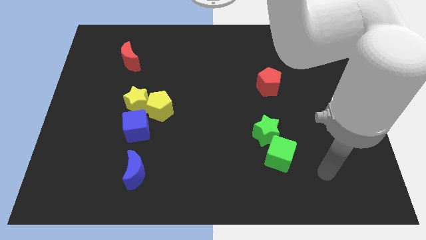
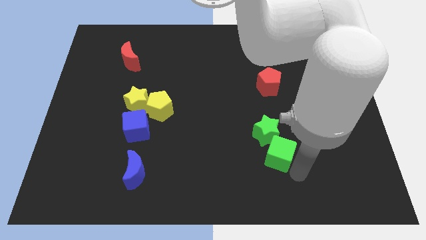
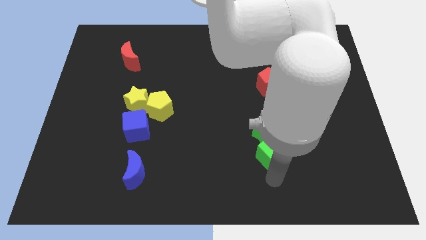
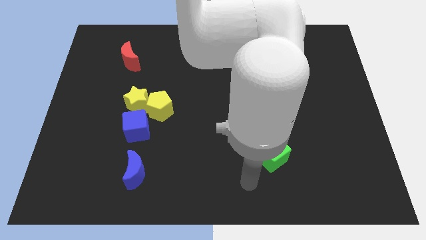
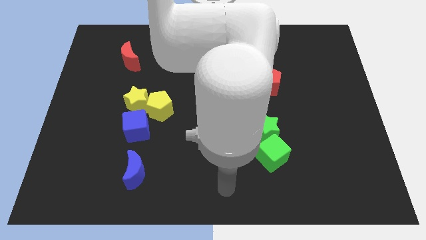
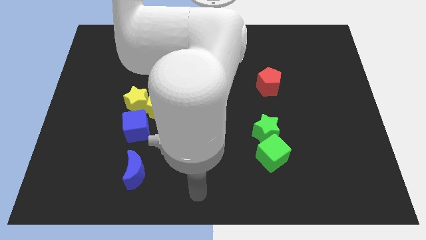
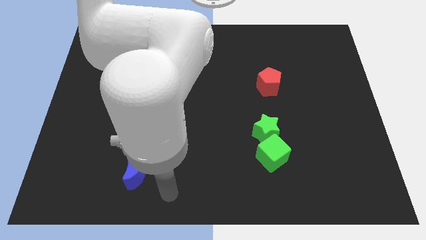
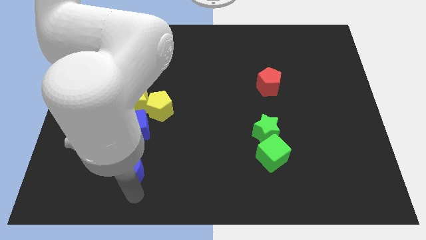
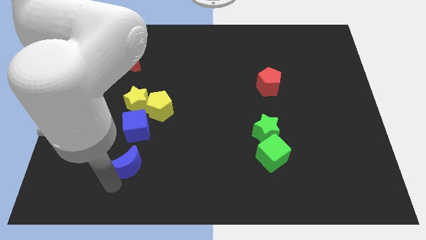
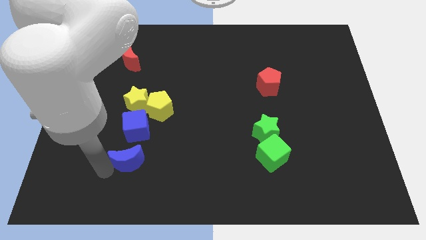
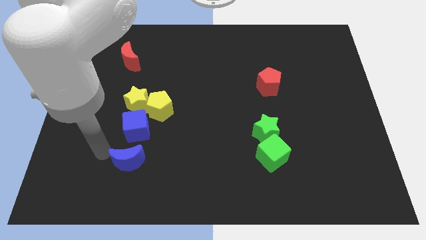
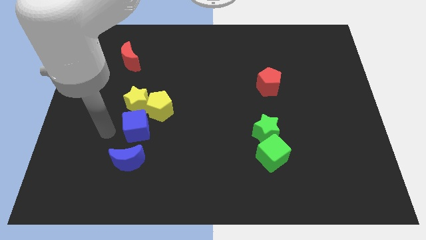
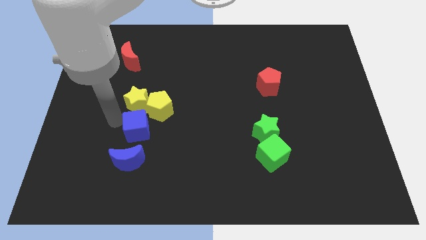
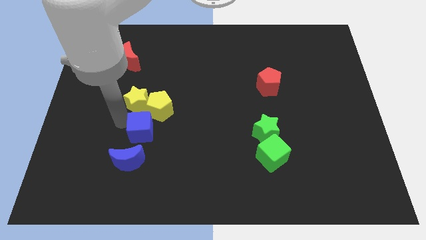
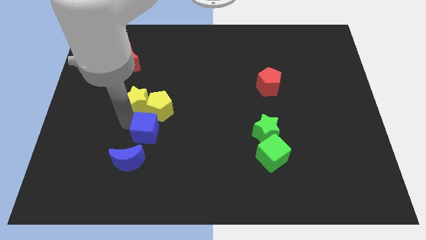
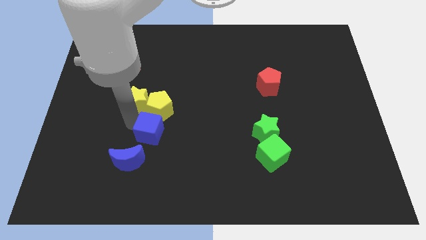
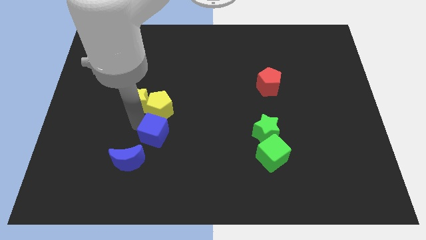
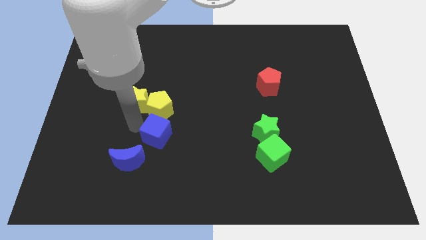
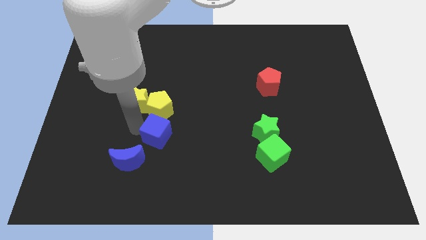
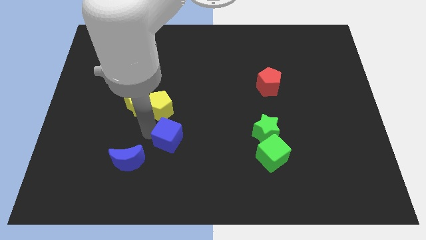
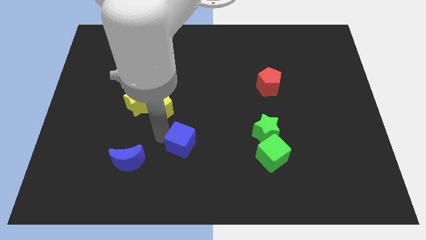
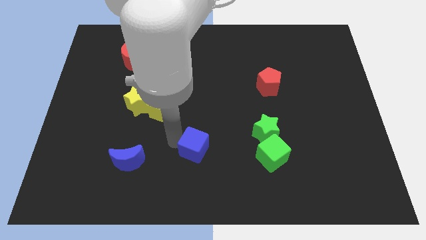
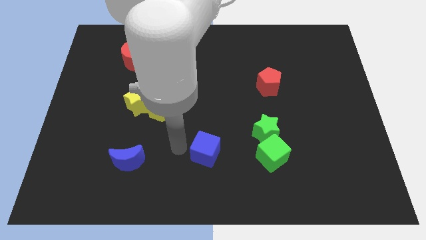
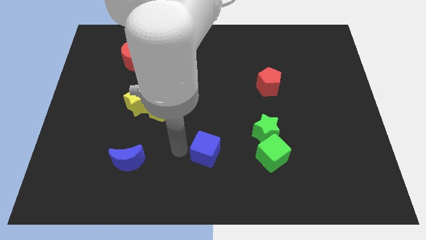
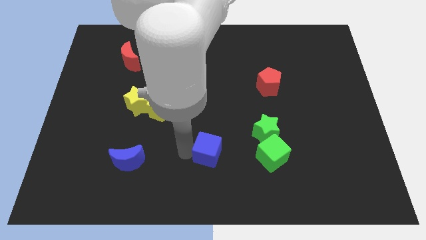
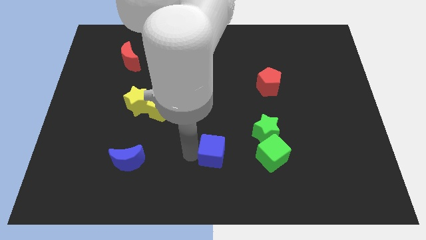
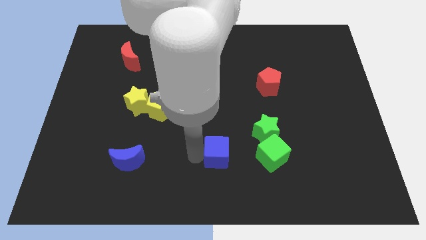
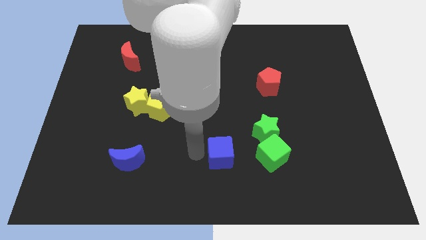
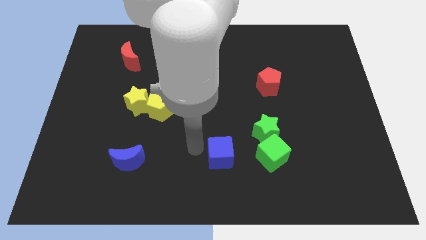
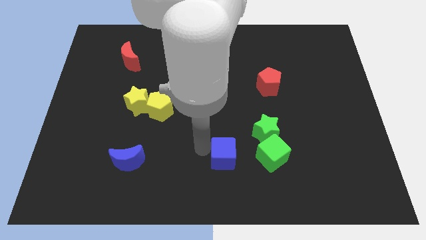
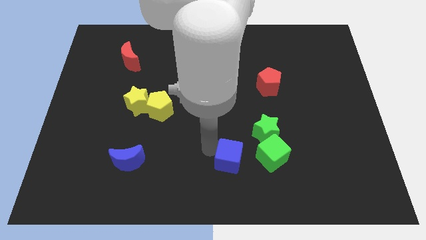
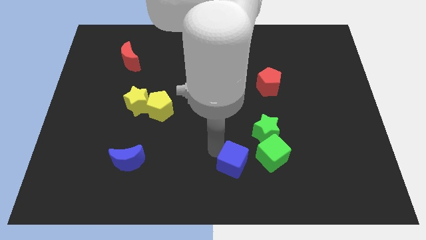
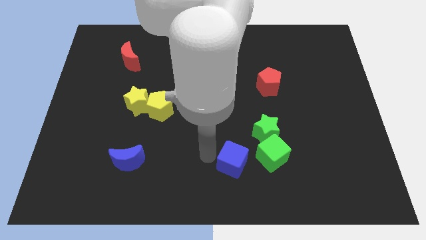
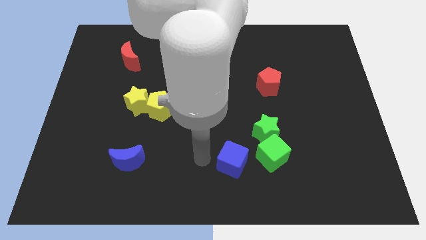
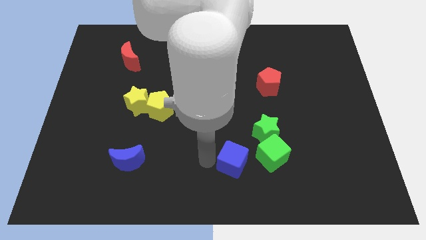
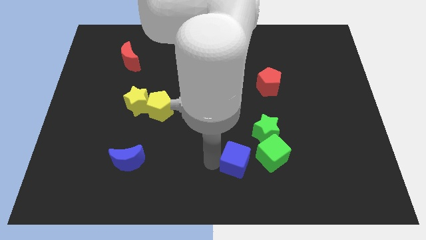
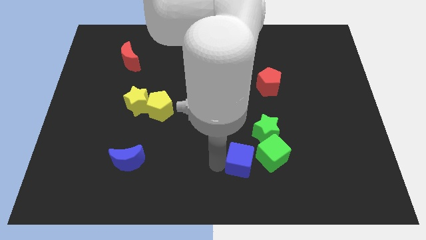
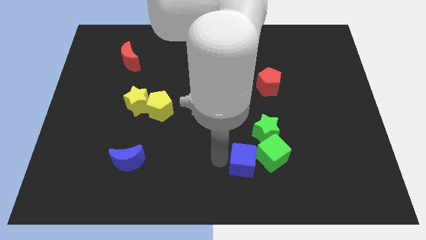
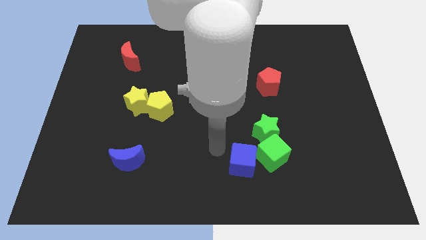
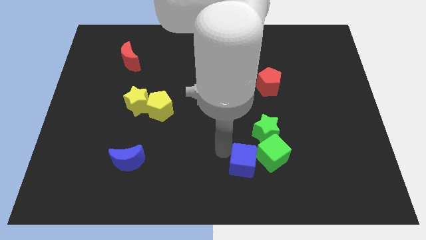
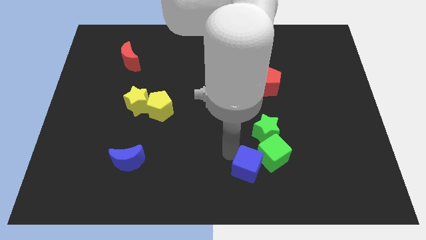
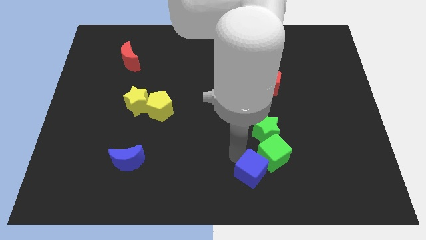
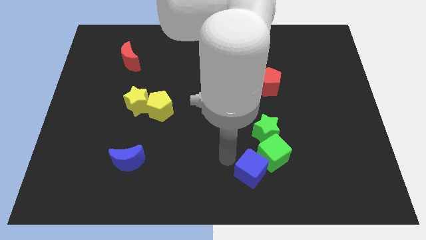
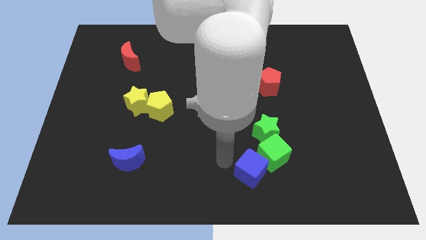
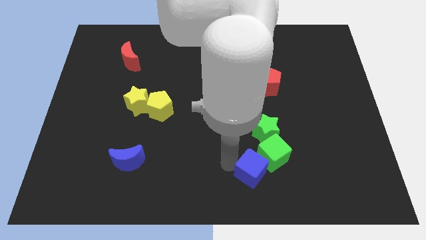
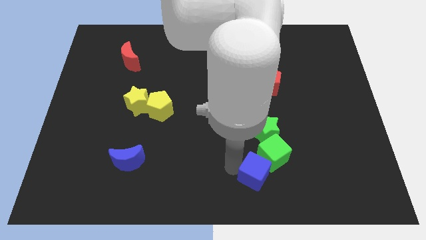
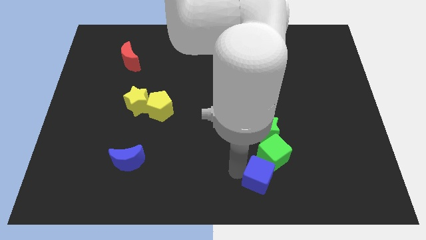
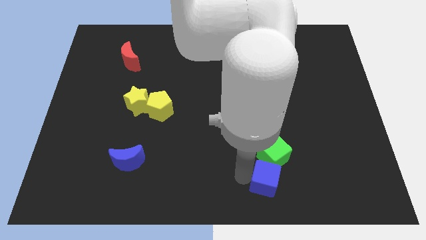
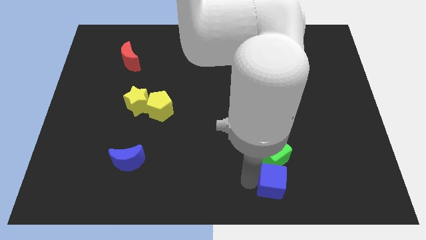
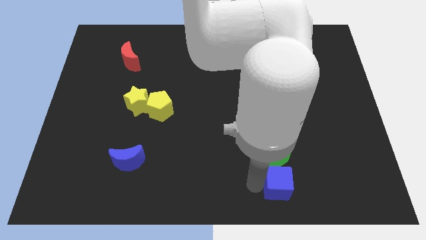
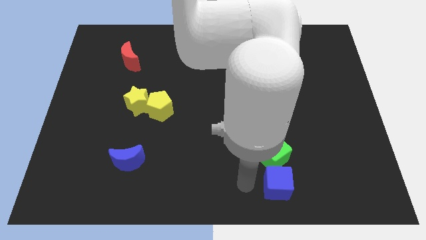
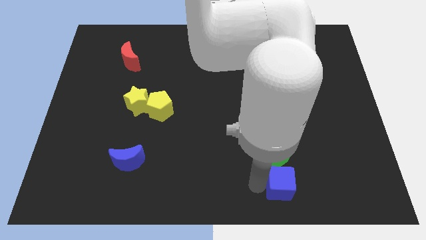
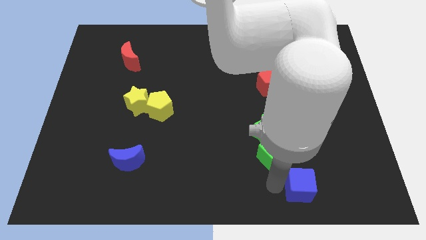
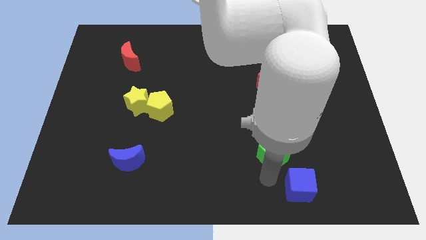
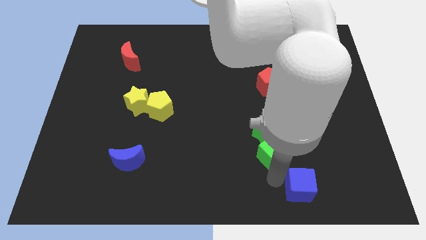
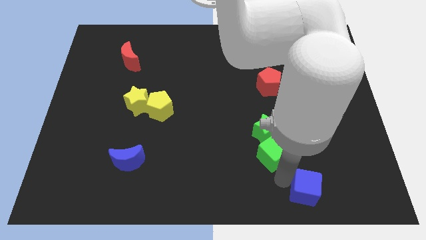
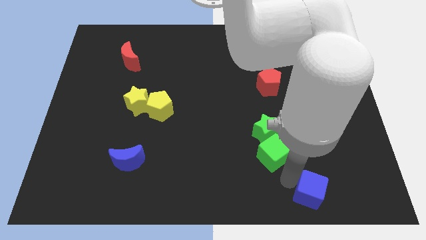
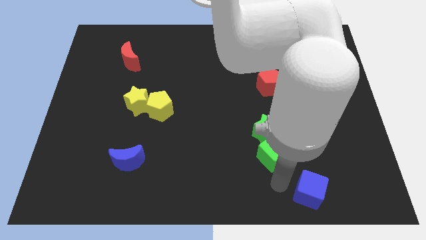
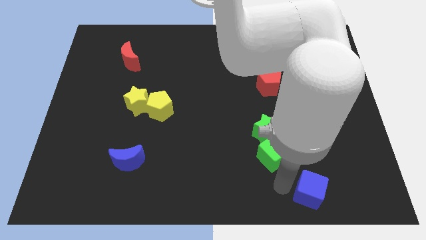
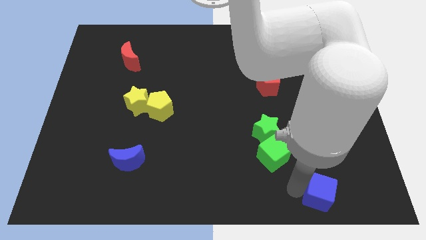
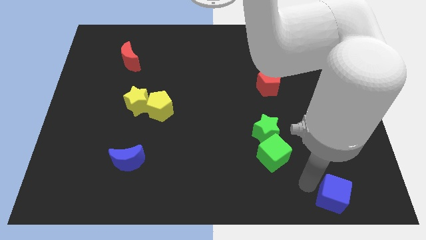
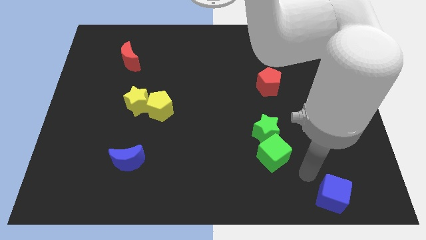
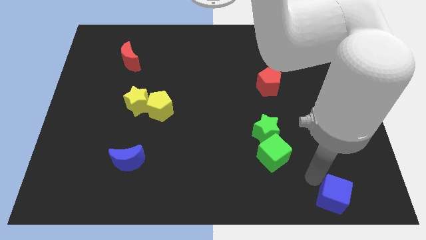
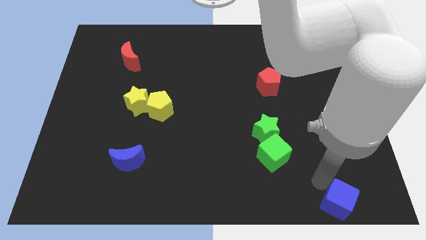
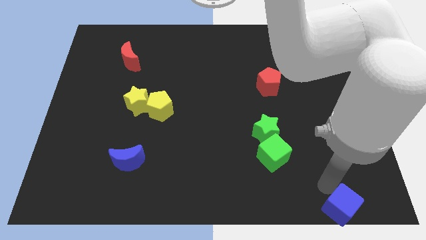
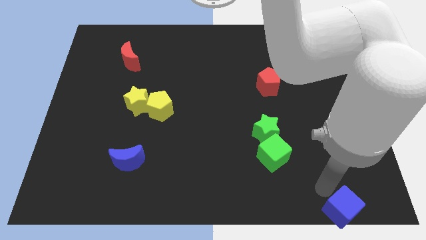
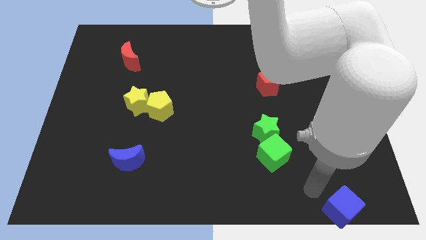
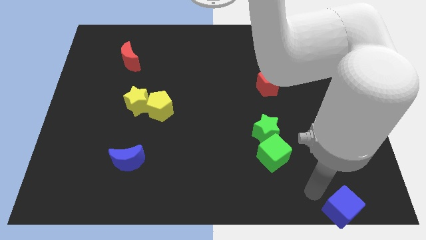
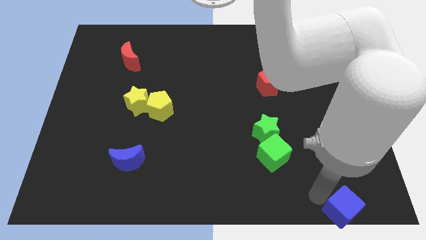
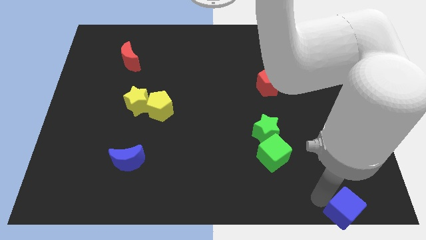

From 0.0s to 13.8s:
slide the blue cube to the bottom right

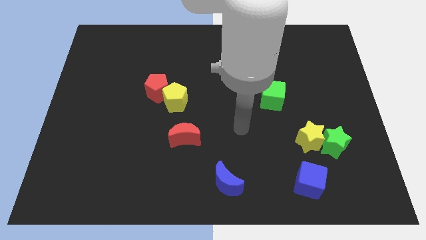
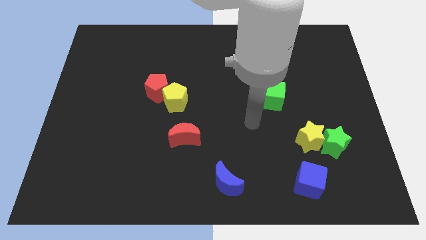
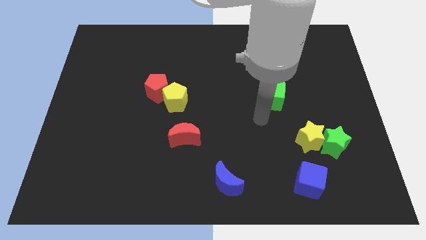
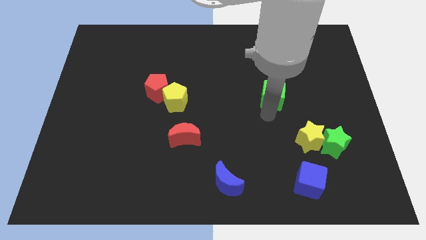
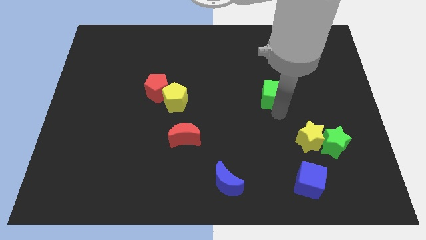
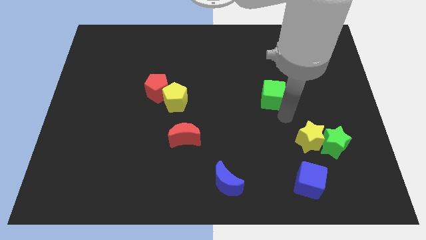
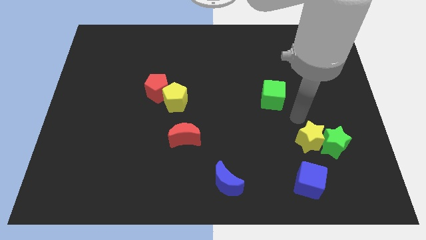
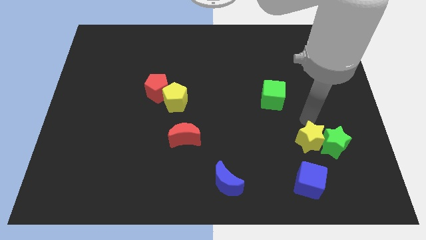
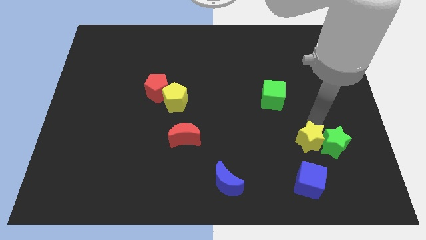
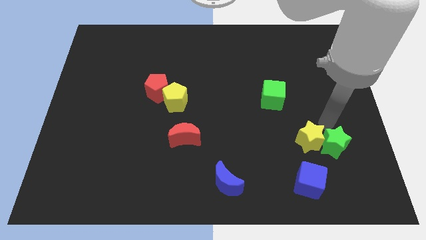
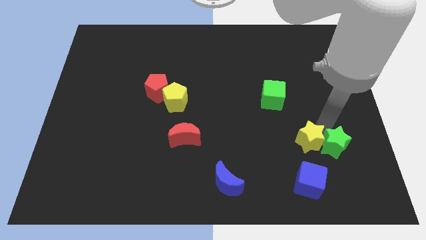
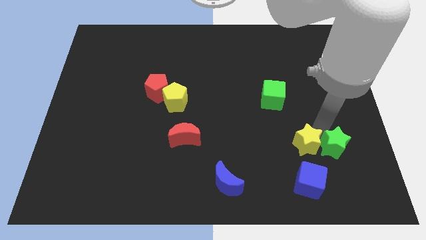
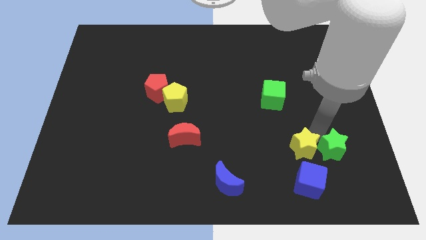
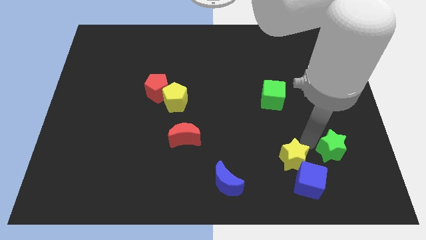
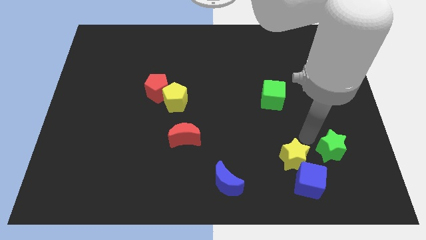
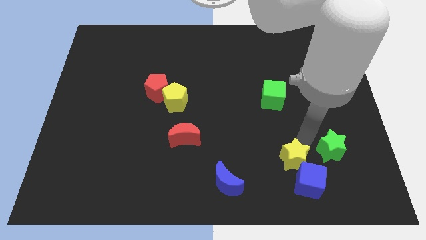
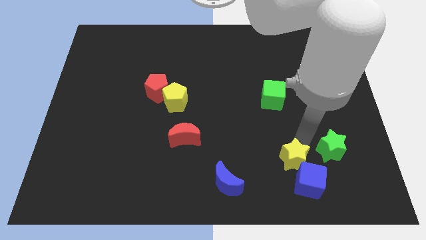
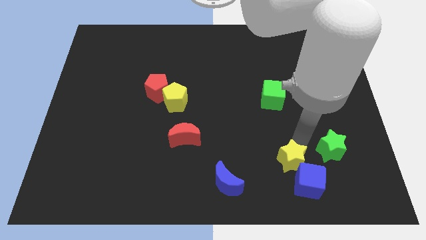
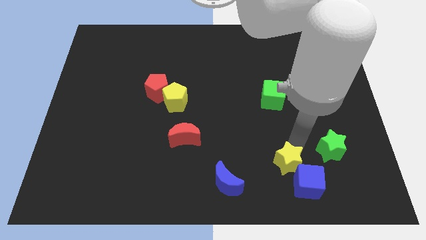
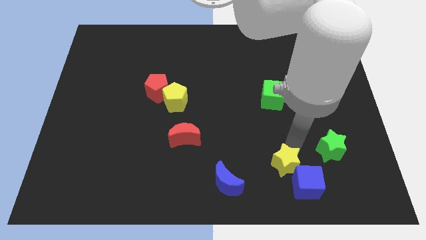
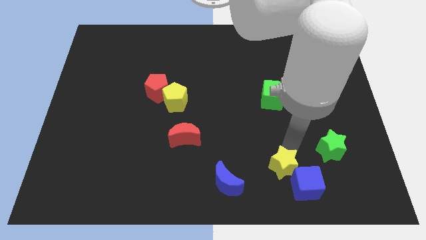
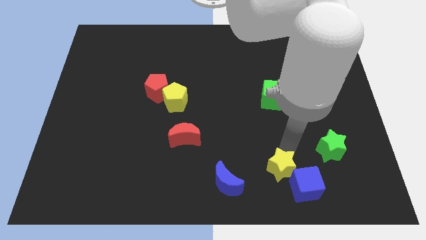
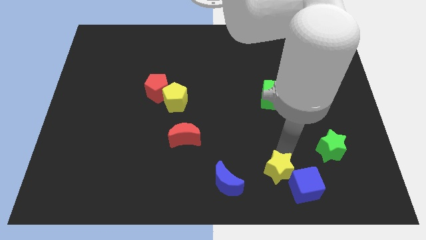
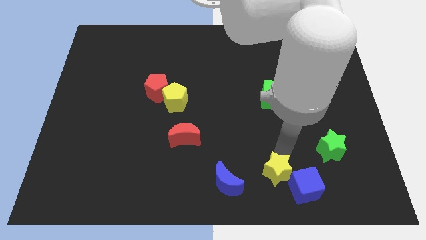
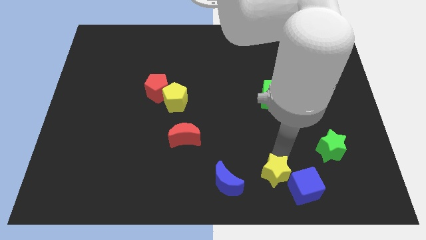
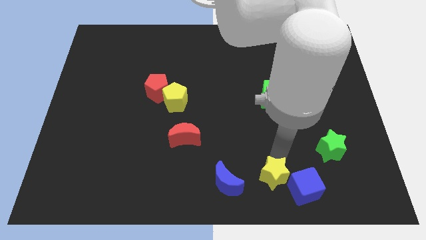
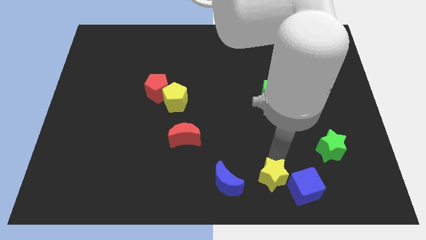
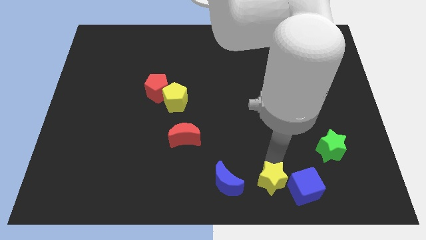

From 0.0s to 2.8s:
move the yellow star to the bottom side
